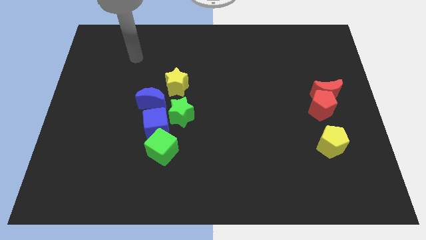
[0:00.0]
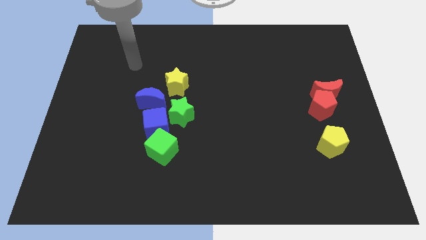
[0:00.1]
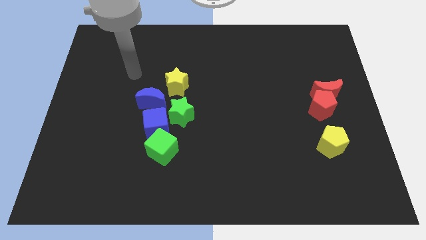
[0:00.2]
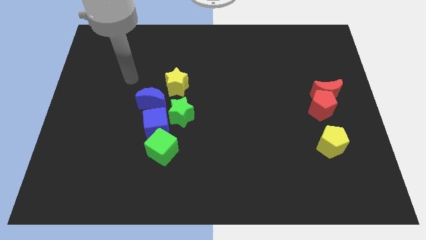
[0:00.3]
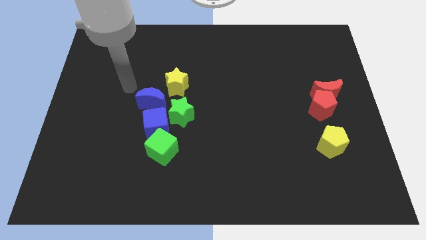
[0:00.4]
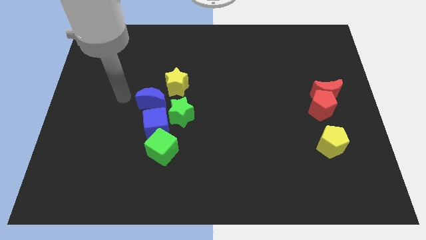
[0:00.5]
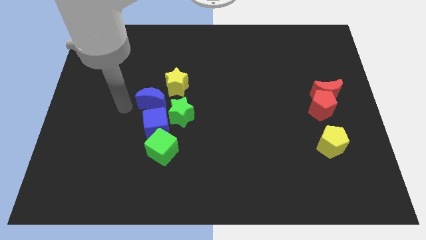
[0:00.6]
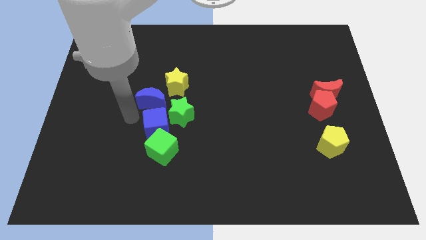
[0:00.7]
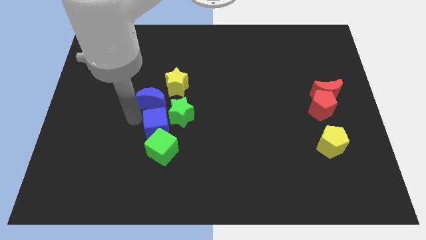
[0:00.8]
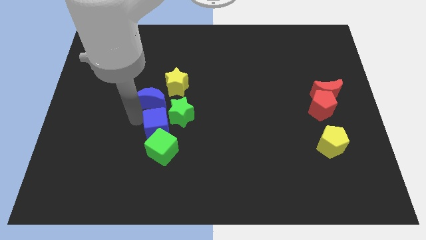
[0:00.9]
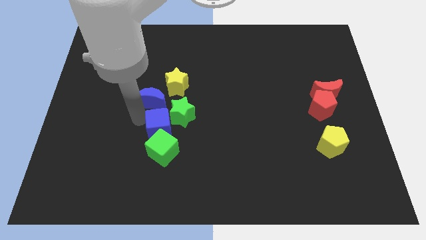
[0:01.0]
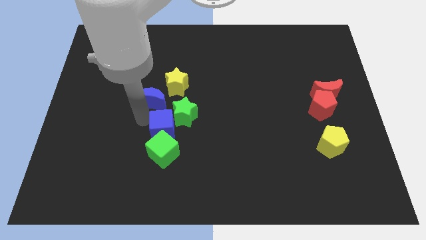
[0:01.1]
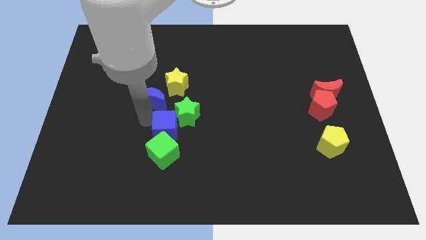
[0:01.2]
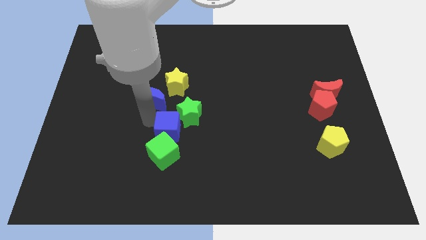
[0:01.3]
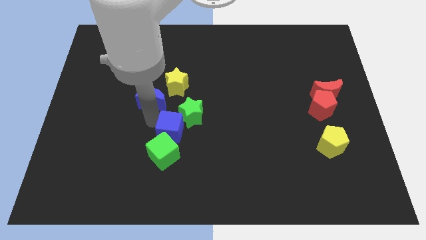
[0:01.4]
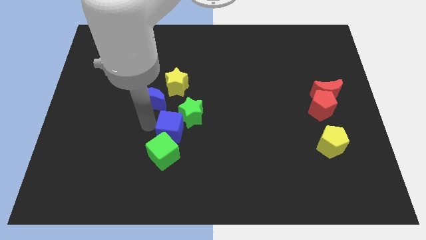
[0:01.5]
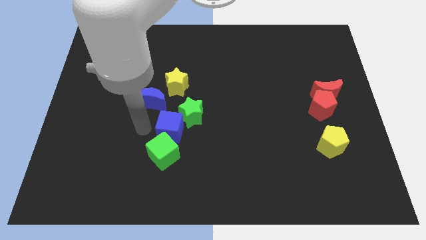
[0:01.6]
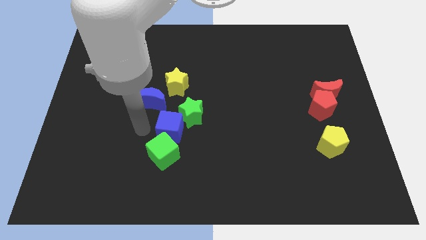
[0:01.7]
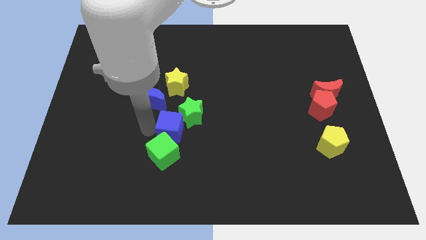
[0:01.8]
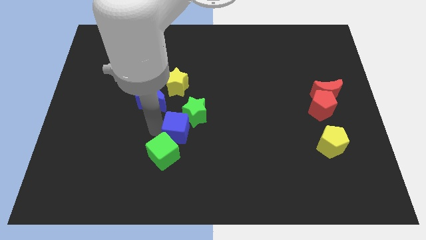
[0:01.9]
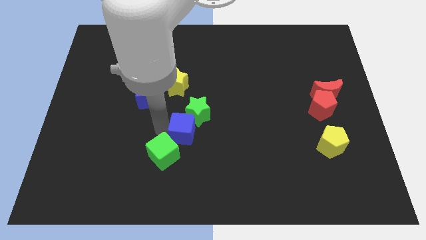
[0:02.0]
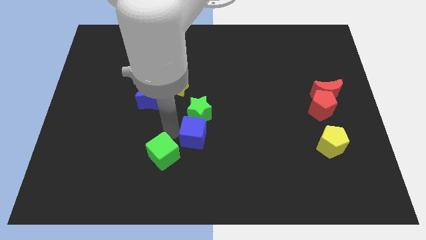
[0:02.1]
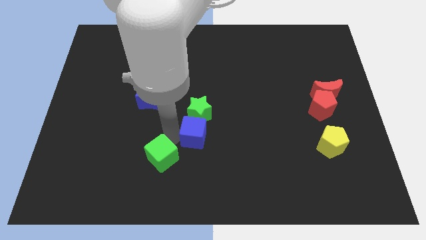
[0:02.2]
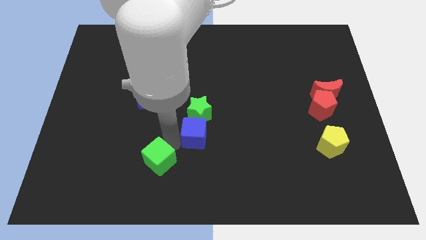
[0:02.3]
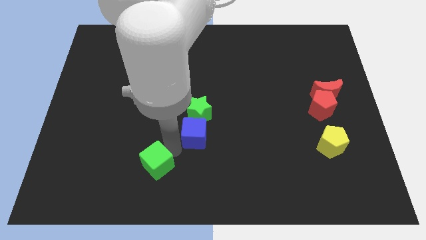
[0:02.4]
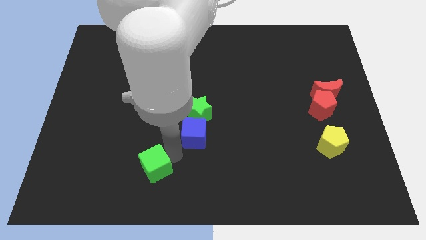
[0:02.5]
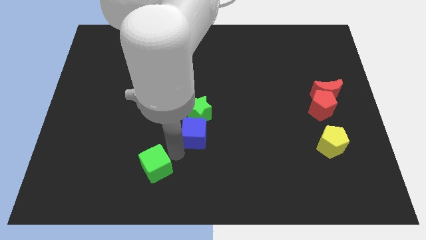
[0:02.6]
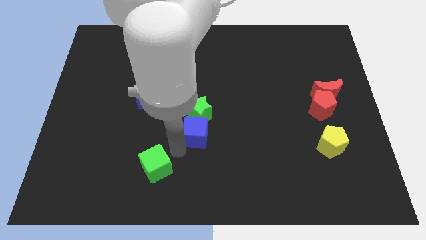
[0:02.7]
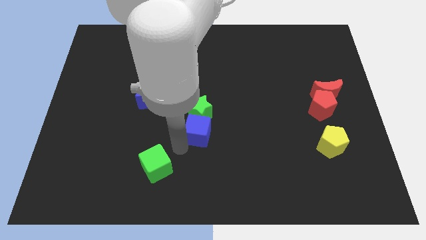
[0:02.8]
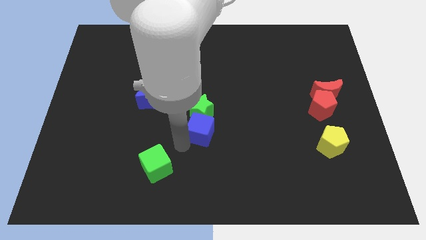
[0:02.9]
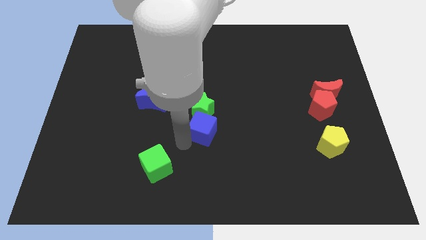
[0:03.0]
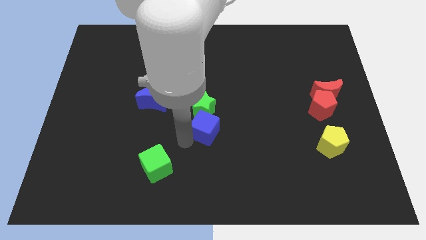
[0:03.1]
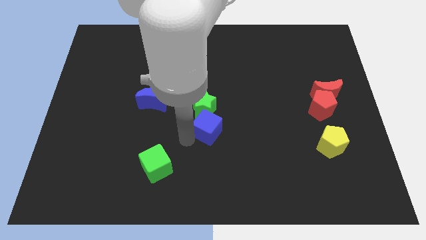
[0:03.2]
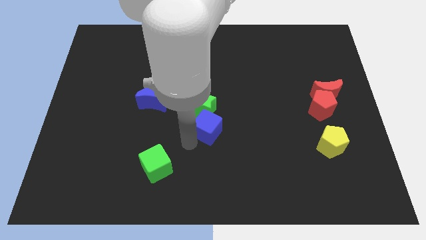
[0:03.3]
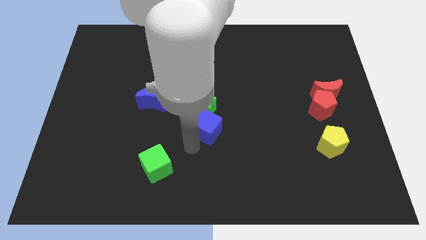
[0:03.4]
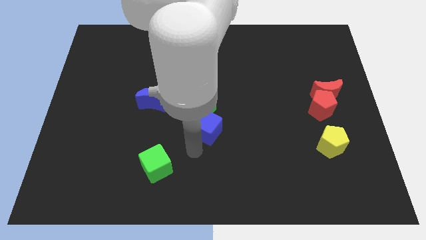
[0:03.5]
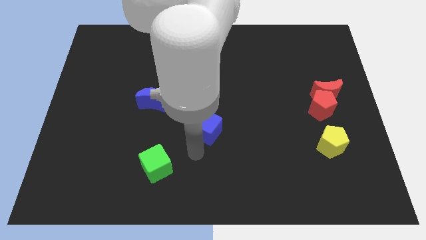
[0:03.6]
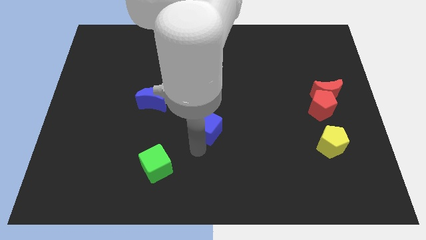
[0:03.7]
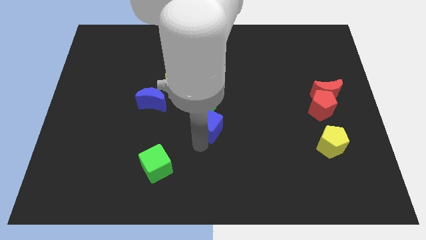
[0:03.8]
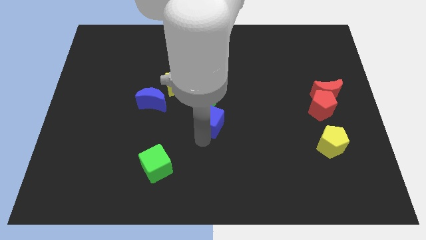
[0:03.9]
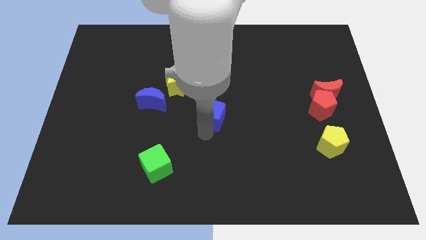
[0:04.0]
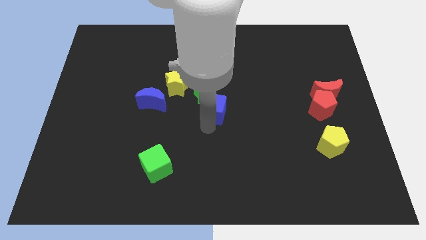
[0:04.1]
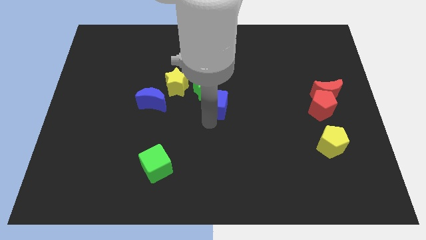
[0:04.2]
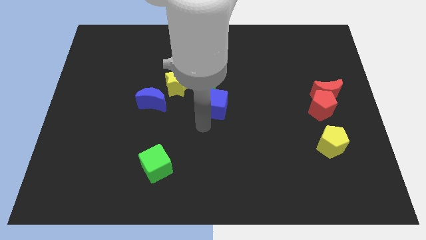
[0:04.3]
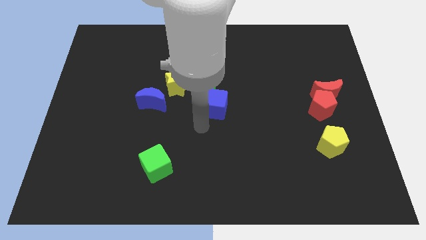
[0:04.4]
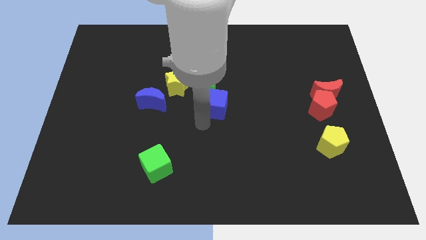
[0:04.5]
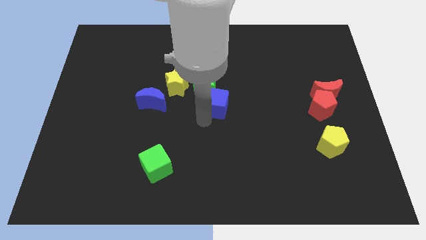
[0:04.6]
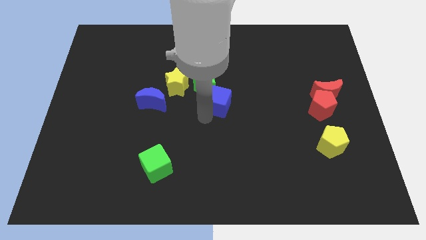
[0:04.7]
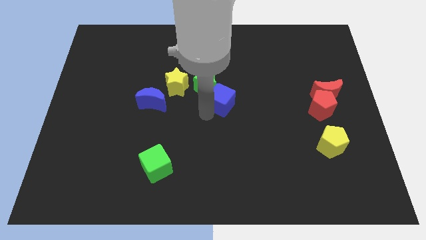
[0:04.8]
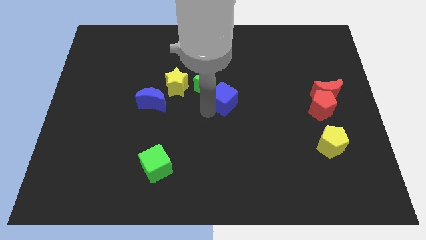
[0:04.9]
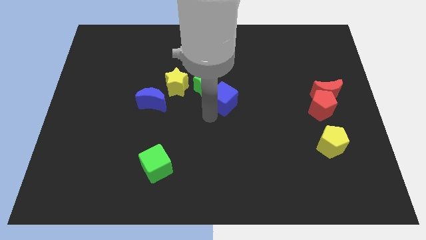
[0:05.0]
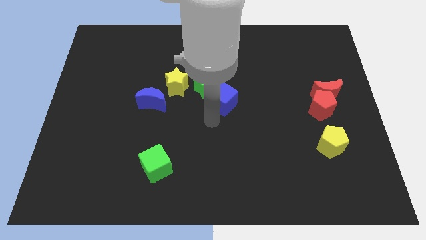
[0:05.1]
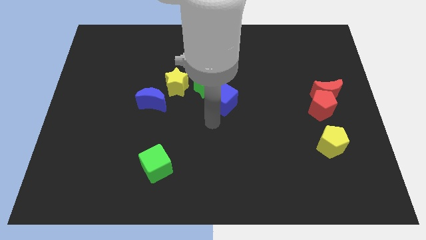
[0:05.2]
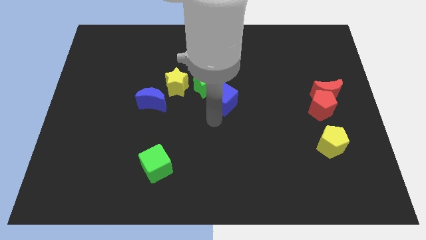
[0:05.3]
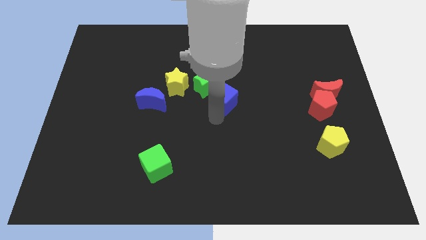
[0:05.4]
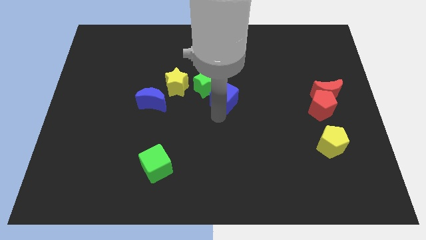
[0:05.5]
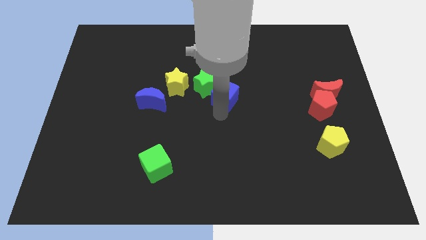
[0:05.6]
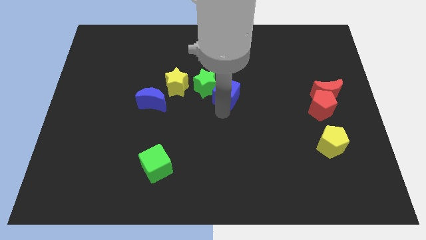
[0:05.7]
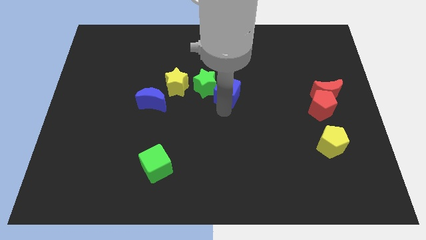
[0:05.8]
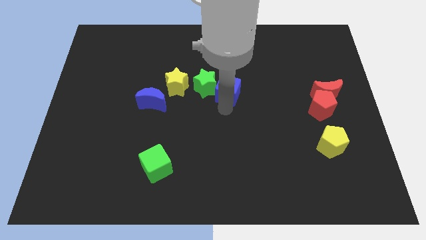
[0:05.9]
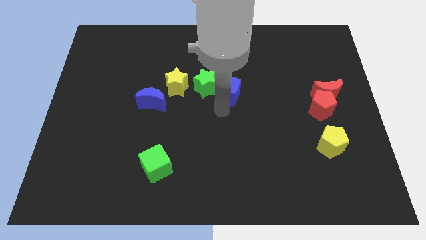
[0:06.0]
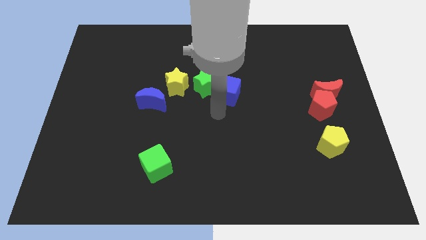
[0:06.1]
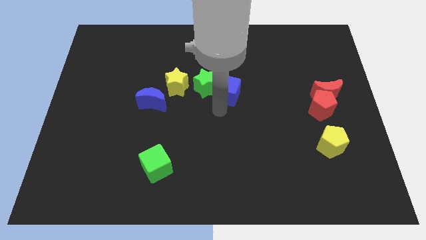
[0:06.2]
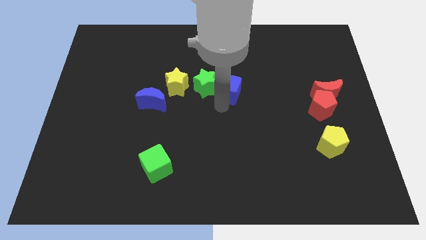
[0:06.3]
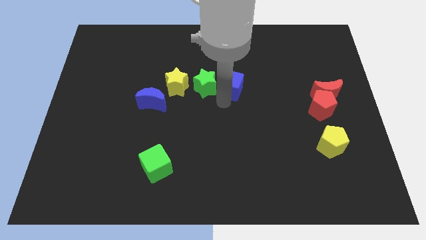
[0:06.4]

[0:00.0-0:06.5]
move the blue cube diagonally up and right

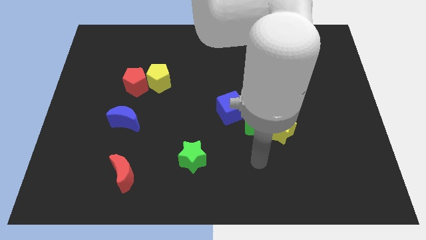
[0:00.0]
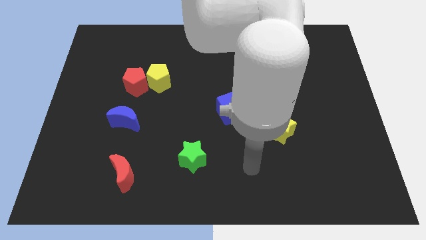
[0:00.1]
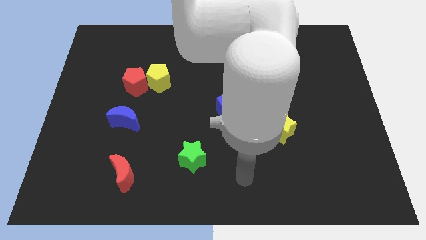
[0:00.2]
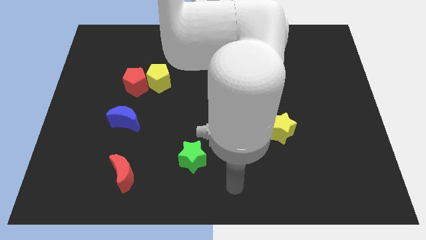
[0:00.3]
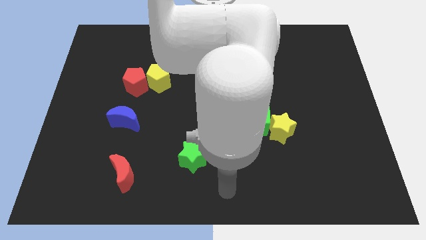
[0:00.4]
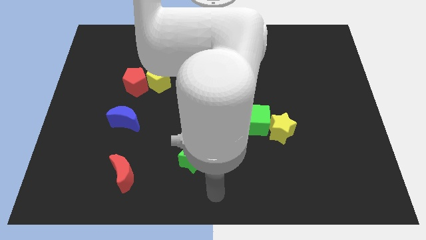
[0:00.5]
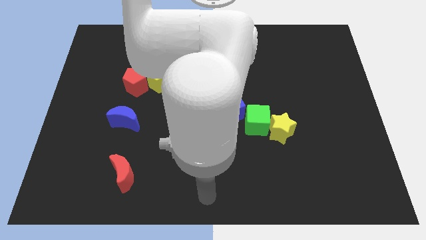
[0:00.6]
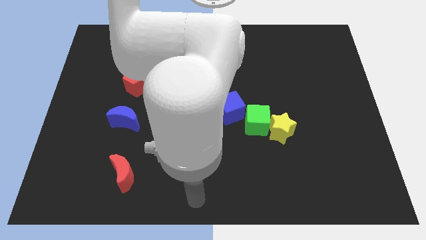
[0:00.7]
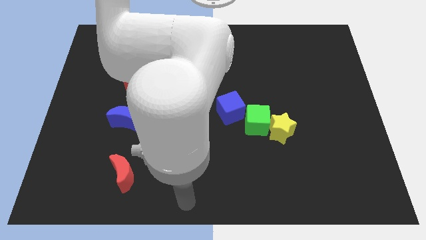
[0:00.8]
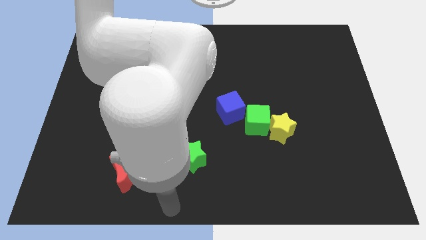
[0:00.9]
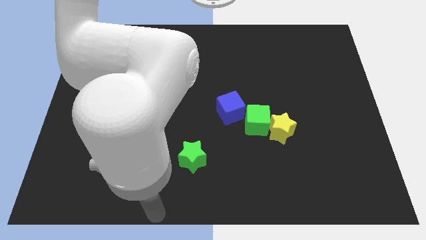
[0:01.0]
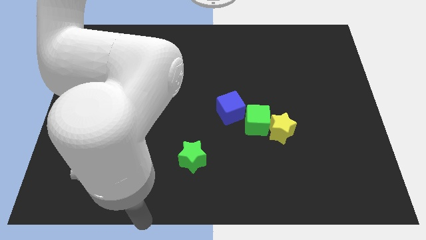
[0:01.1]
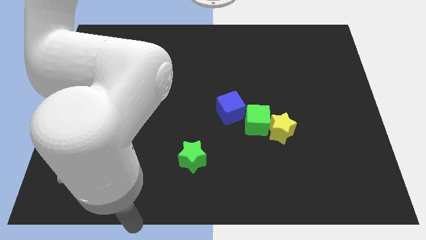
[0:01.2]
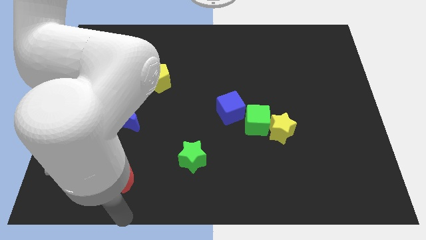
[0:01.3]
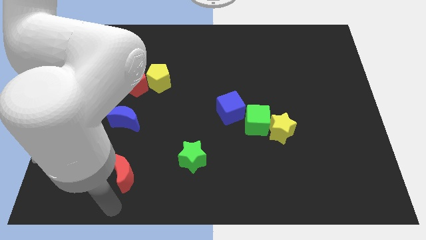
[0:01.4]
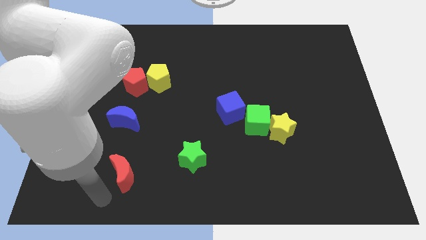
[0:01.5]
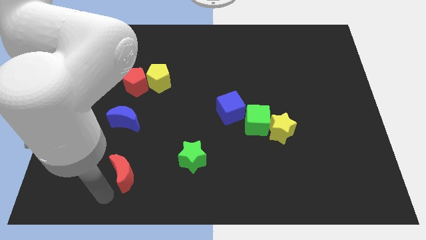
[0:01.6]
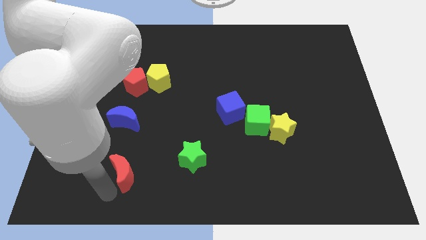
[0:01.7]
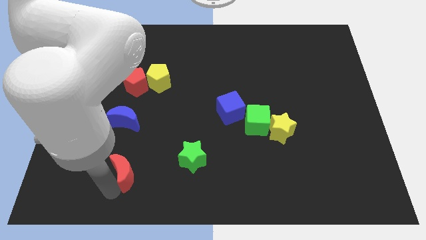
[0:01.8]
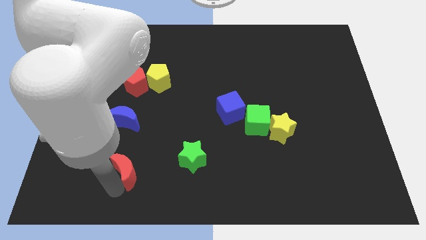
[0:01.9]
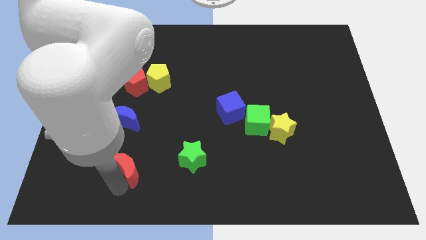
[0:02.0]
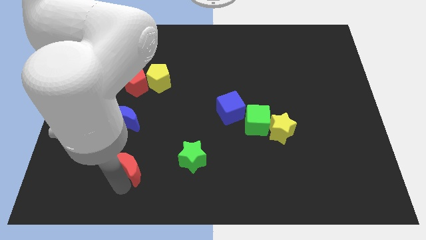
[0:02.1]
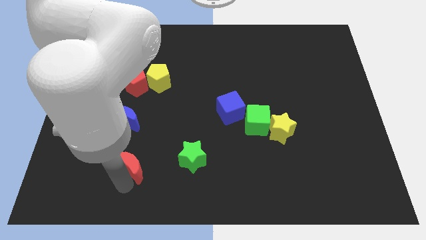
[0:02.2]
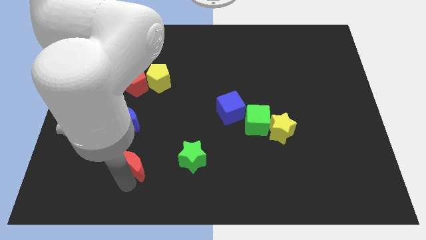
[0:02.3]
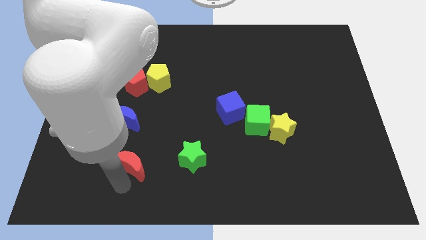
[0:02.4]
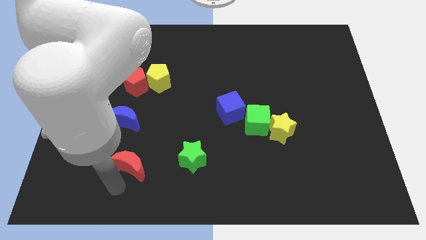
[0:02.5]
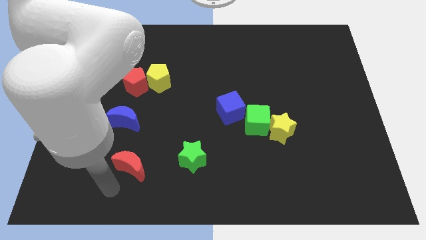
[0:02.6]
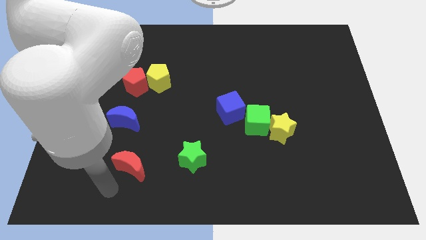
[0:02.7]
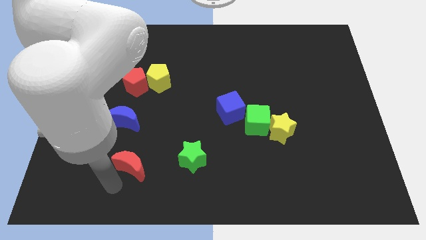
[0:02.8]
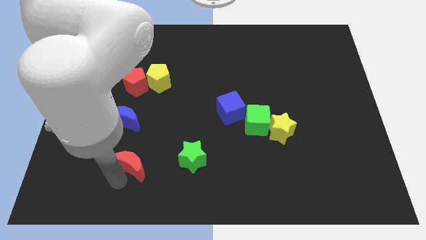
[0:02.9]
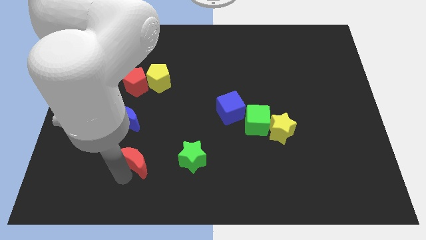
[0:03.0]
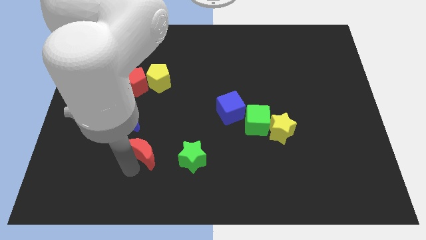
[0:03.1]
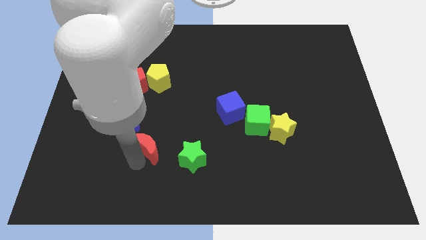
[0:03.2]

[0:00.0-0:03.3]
slightly push the red moon diagonally upwards and right
